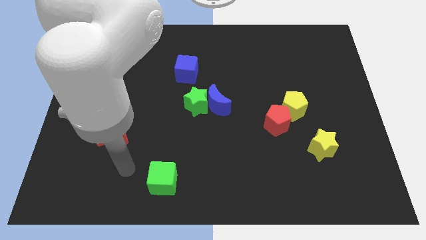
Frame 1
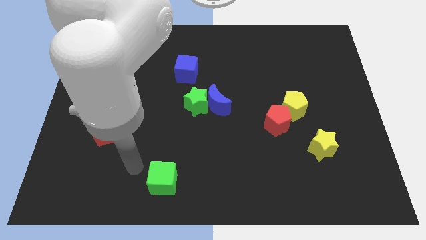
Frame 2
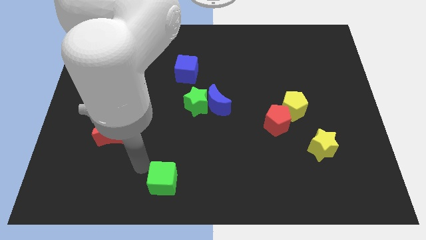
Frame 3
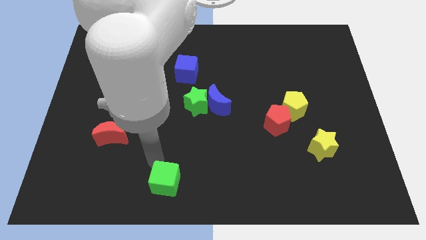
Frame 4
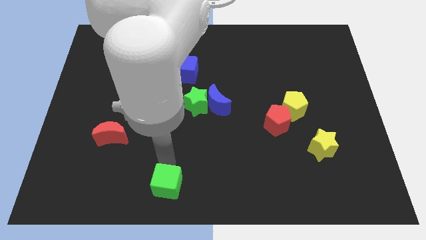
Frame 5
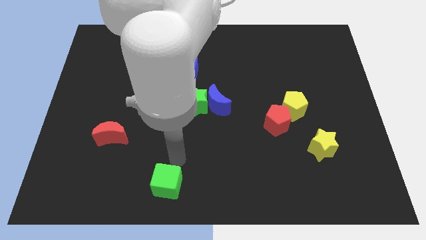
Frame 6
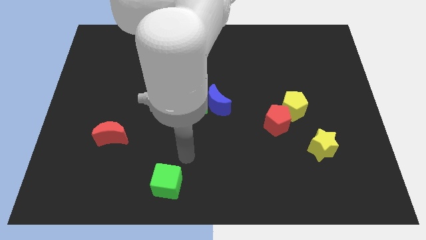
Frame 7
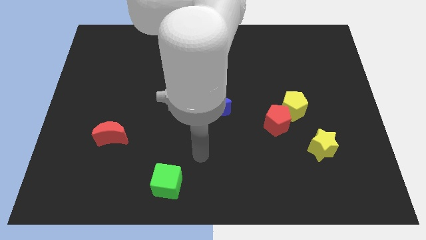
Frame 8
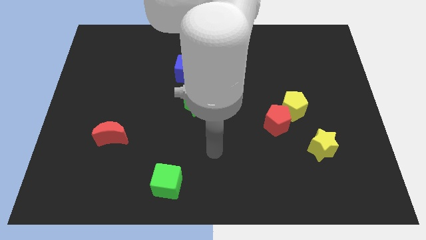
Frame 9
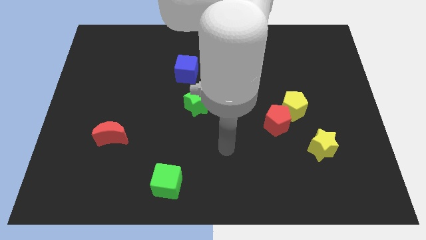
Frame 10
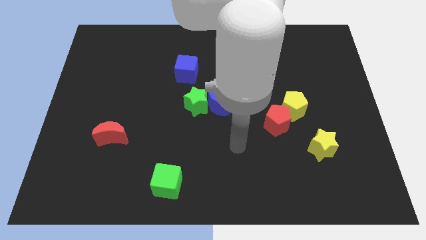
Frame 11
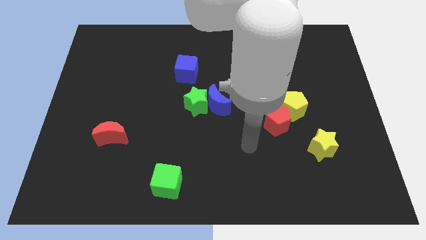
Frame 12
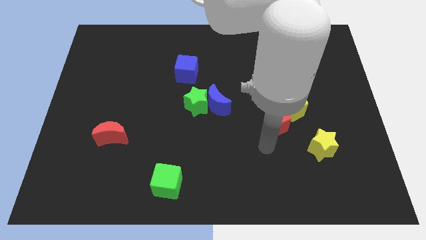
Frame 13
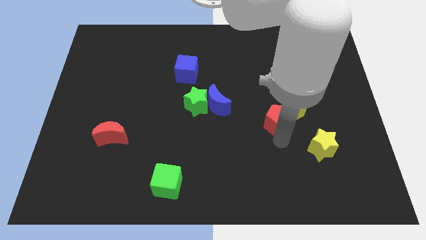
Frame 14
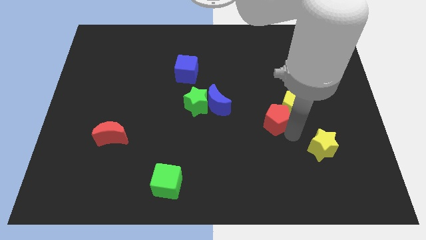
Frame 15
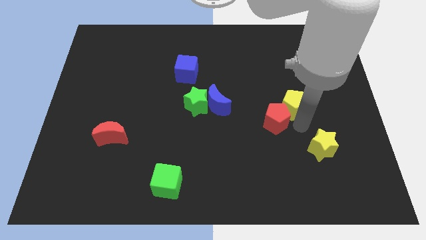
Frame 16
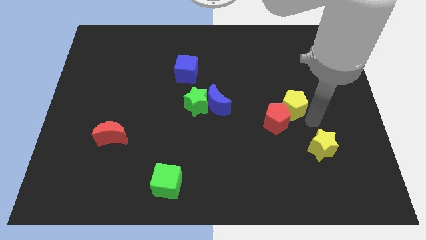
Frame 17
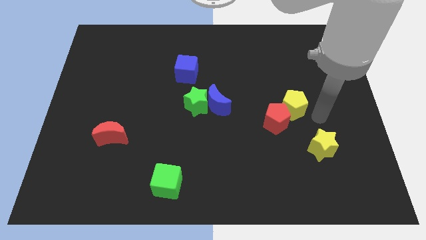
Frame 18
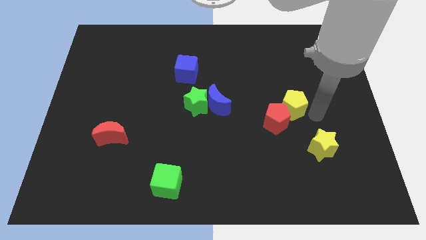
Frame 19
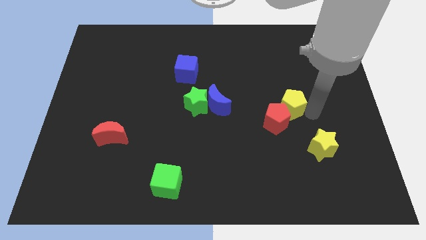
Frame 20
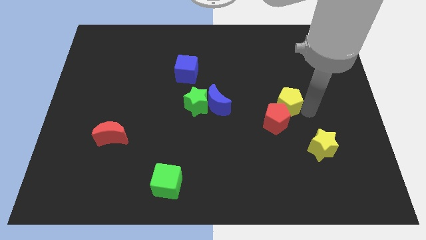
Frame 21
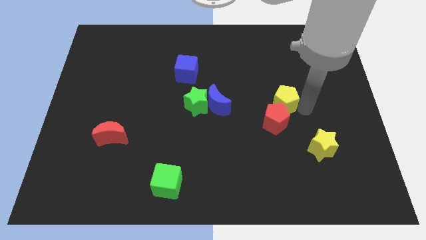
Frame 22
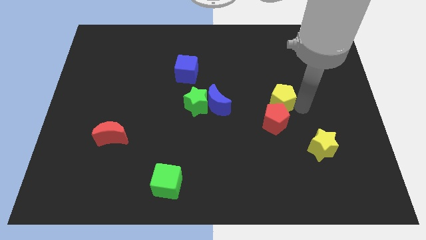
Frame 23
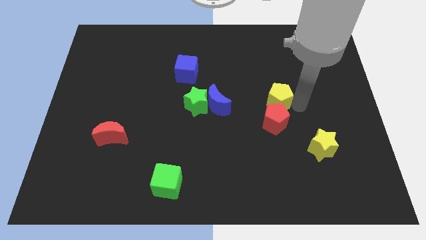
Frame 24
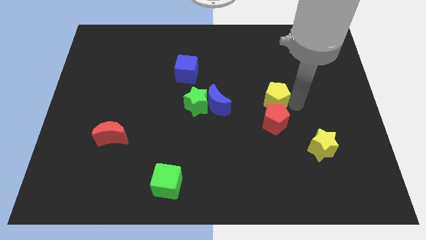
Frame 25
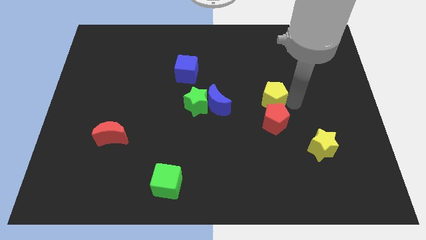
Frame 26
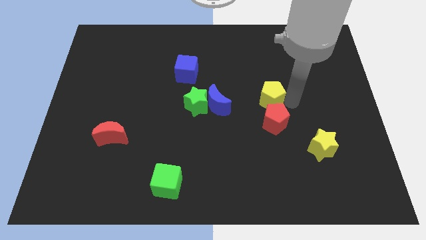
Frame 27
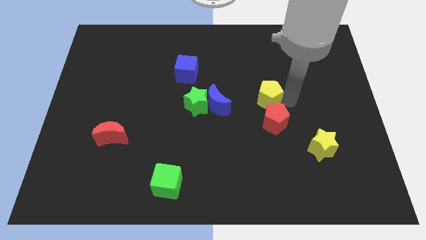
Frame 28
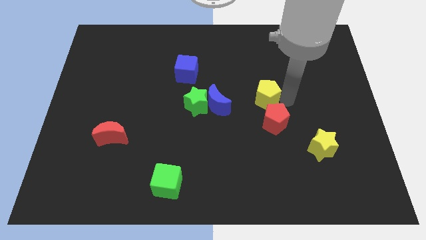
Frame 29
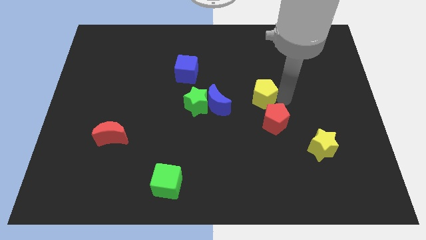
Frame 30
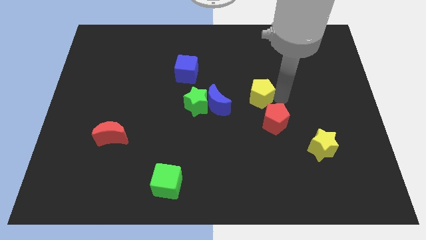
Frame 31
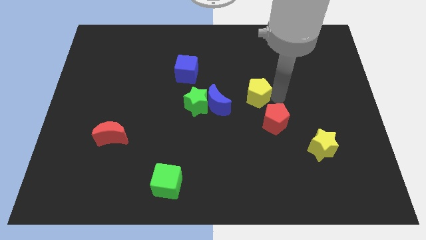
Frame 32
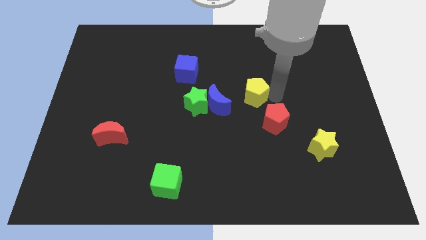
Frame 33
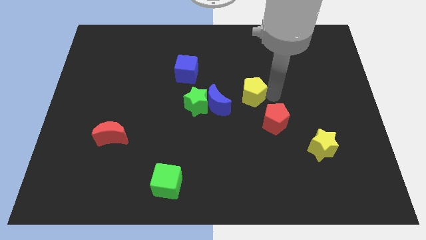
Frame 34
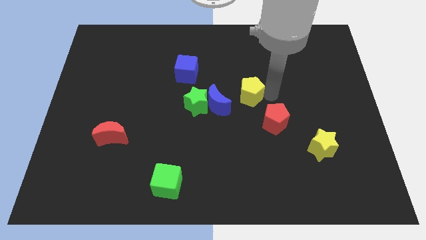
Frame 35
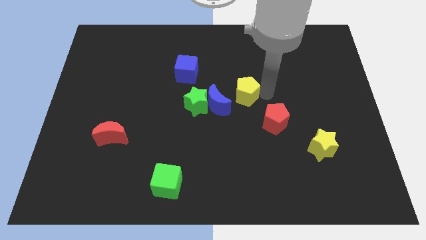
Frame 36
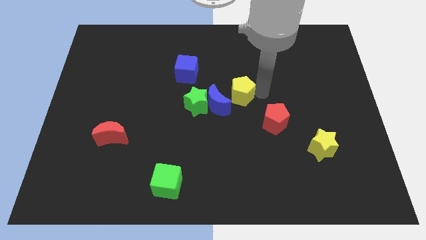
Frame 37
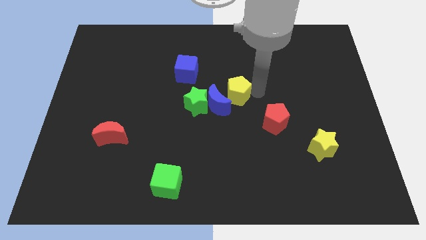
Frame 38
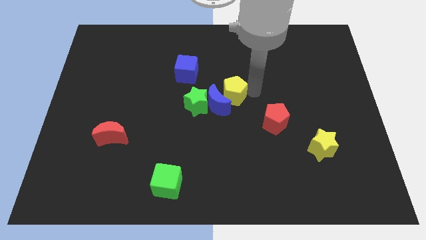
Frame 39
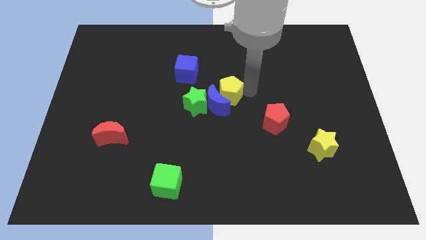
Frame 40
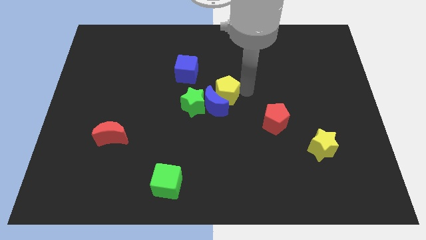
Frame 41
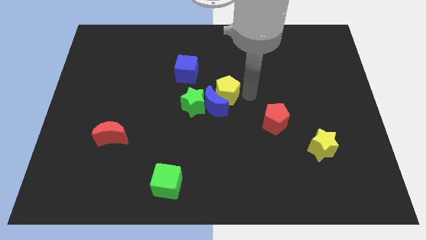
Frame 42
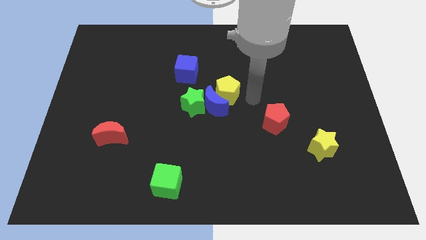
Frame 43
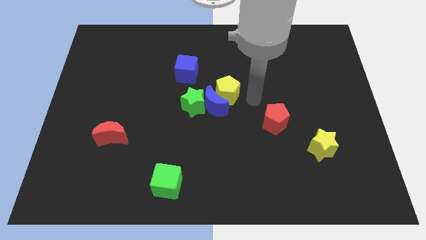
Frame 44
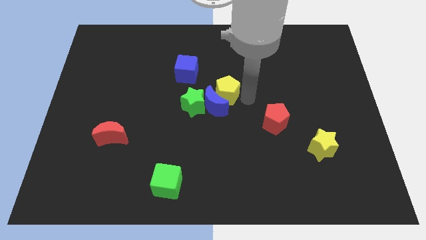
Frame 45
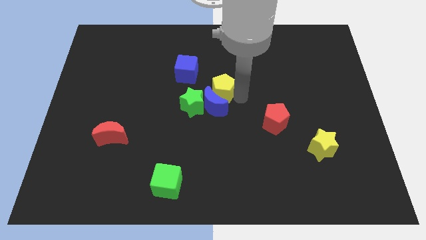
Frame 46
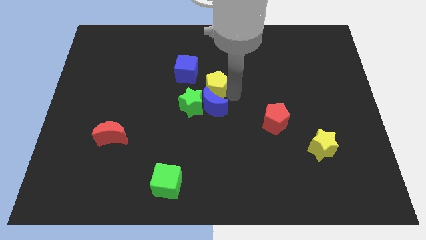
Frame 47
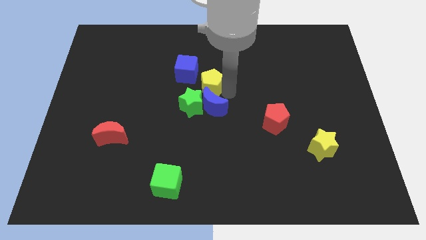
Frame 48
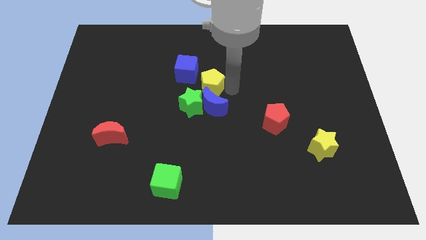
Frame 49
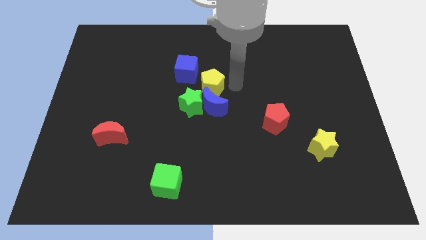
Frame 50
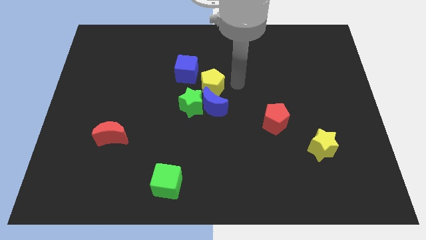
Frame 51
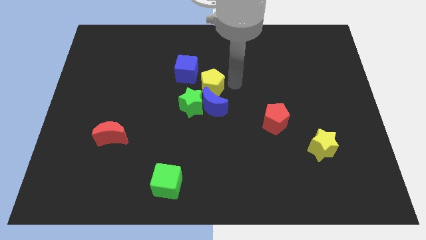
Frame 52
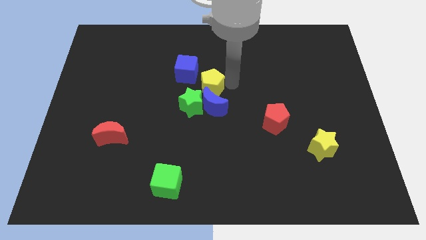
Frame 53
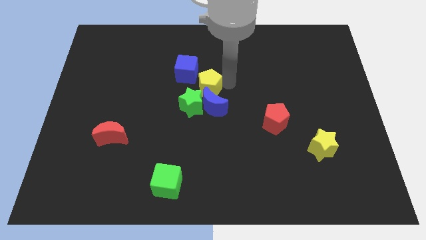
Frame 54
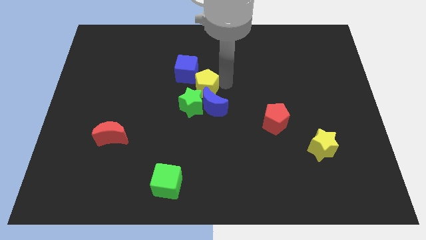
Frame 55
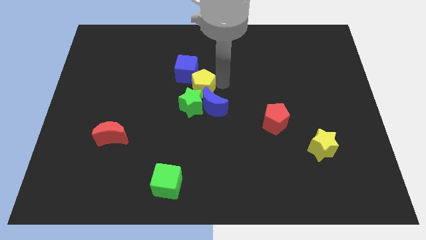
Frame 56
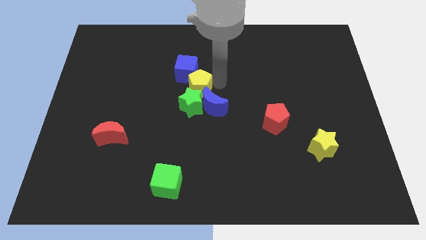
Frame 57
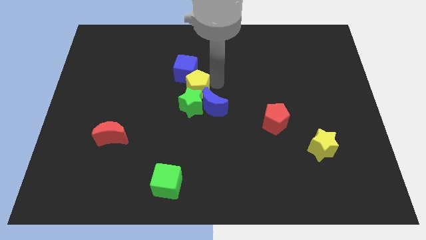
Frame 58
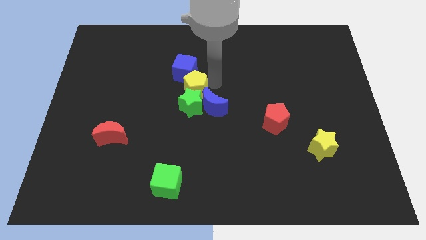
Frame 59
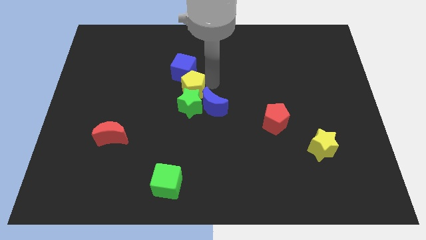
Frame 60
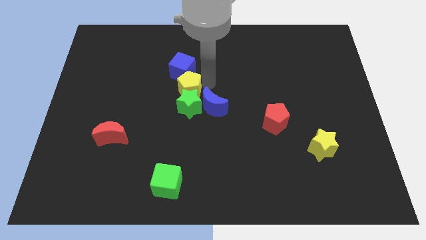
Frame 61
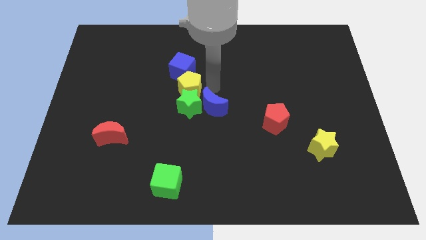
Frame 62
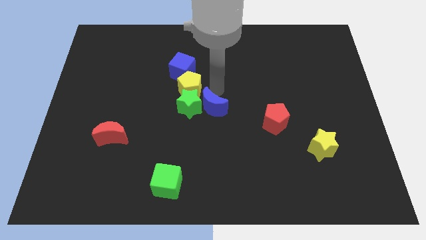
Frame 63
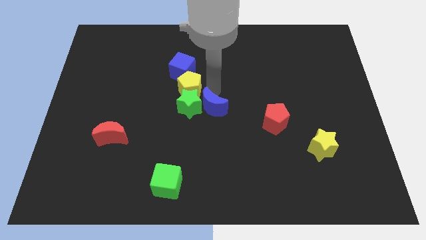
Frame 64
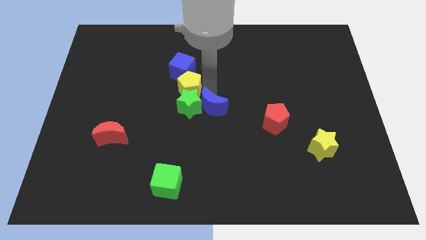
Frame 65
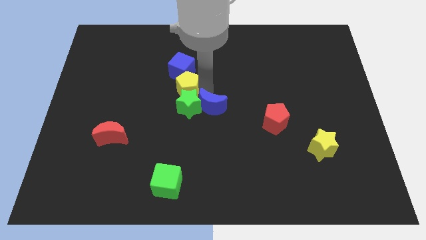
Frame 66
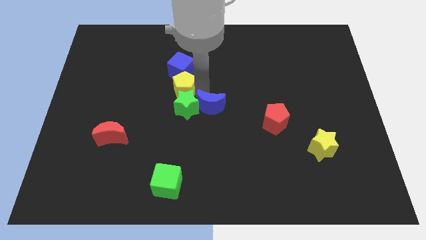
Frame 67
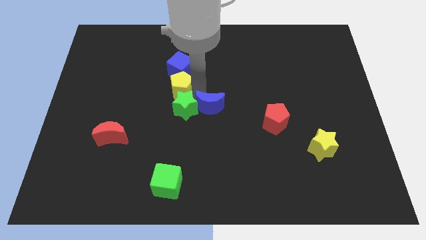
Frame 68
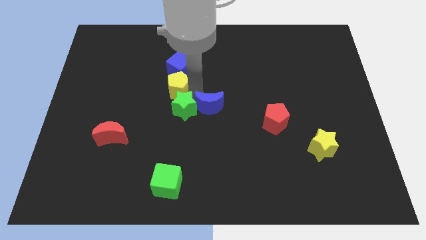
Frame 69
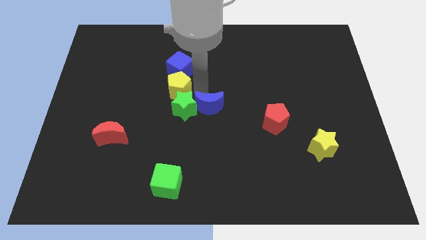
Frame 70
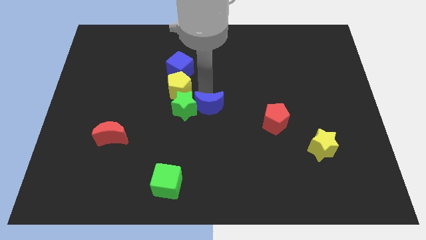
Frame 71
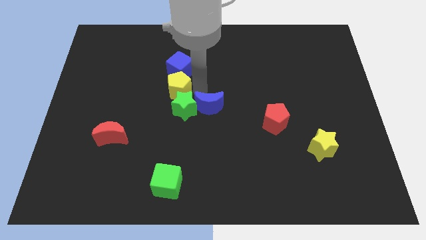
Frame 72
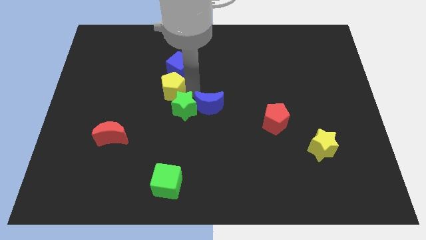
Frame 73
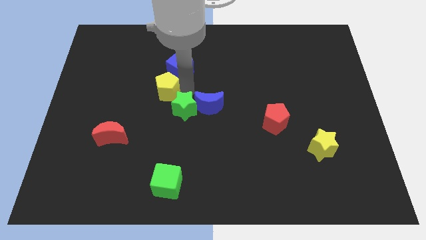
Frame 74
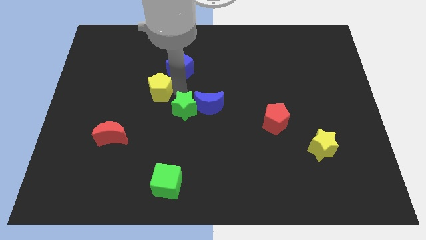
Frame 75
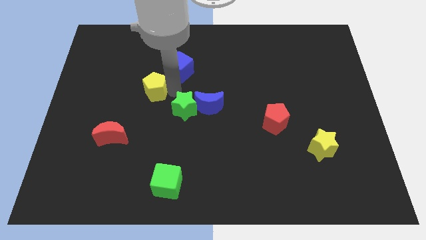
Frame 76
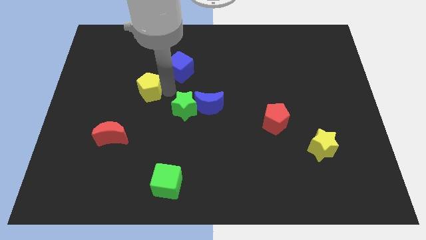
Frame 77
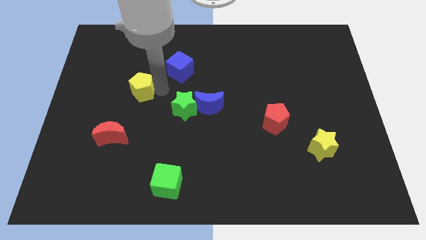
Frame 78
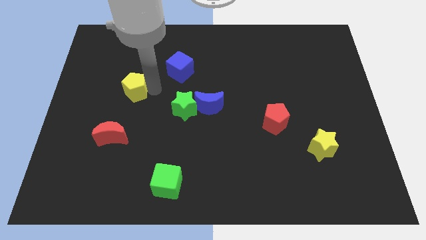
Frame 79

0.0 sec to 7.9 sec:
slide the yellow pentagon above the red moon

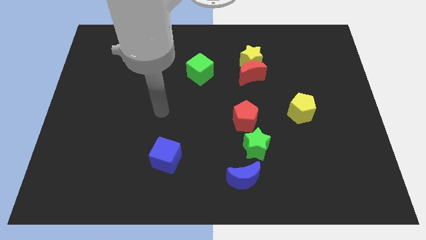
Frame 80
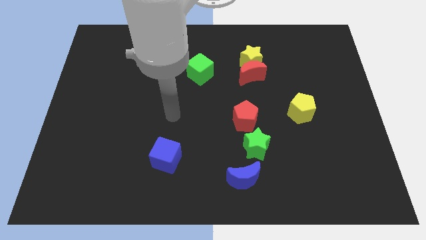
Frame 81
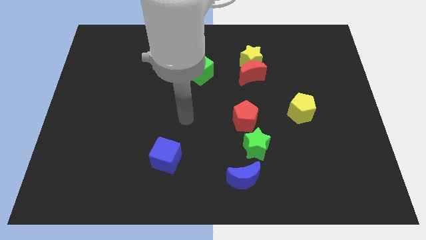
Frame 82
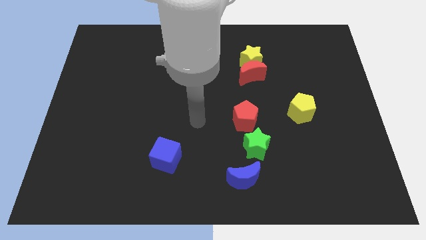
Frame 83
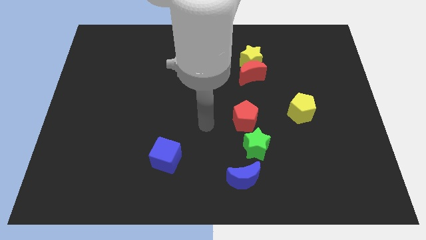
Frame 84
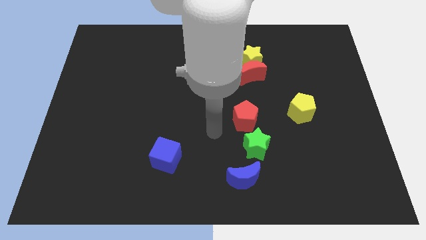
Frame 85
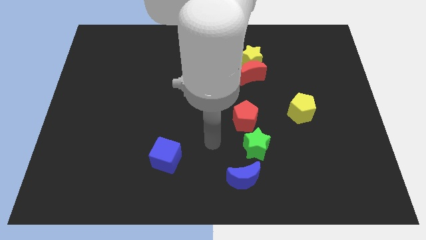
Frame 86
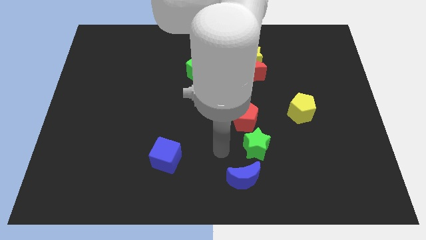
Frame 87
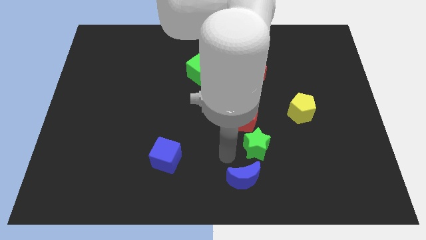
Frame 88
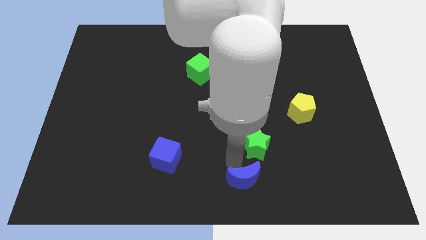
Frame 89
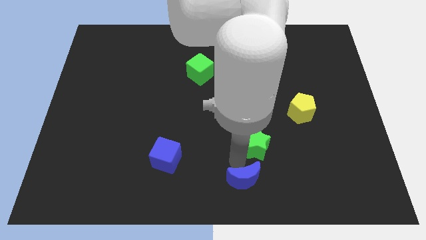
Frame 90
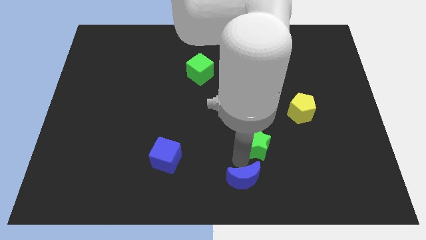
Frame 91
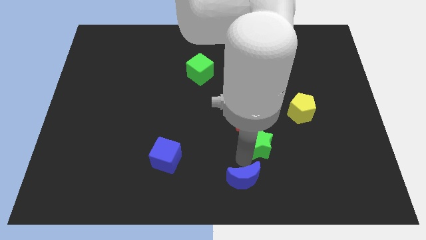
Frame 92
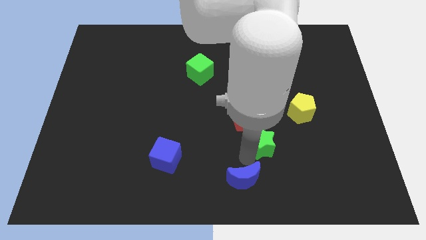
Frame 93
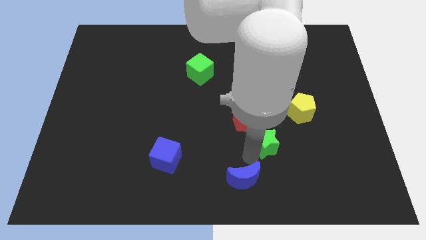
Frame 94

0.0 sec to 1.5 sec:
slide the green star to the bottom left side of the yellow pentagon
